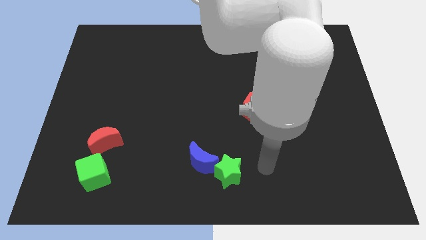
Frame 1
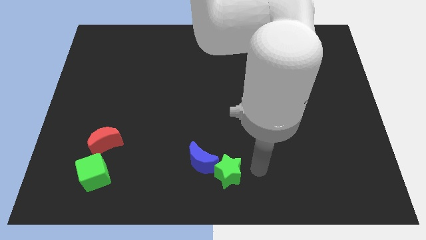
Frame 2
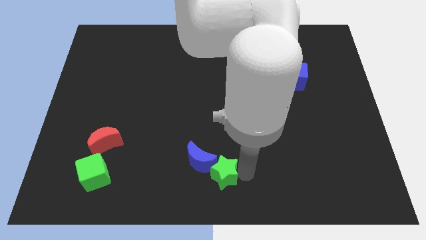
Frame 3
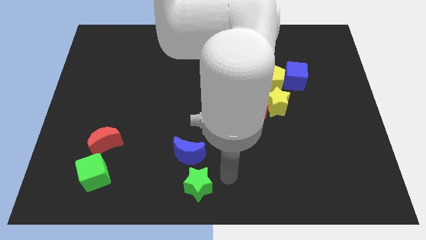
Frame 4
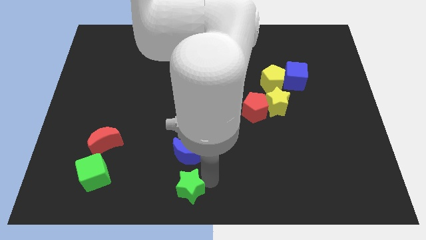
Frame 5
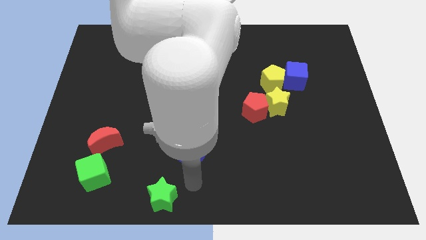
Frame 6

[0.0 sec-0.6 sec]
pull the blue moon apart from the green star

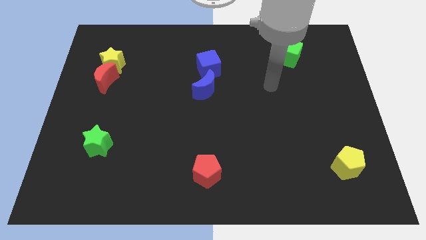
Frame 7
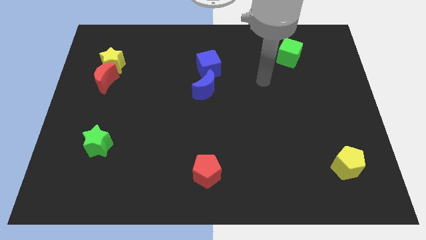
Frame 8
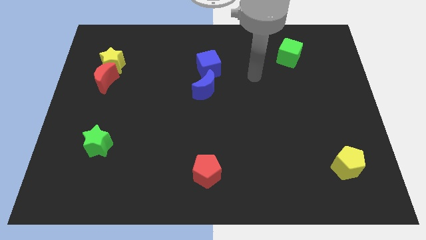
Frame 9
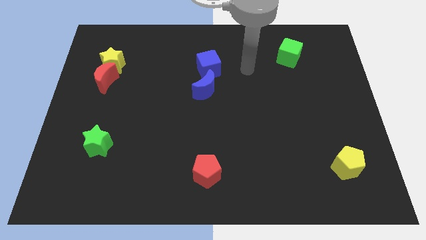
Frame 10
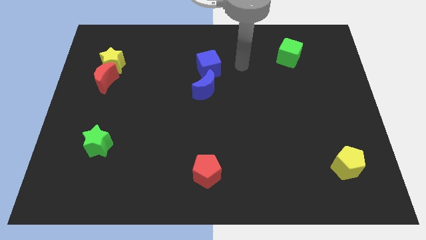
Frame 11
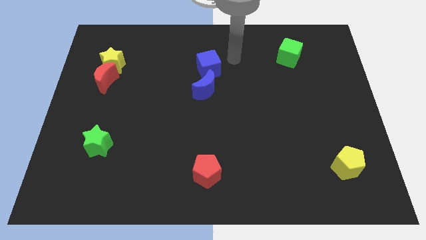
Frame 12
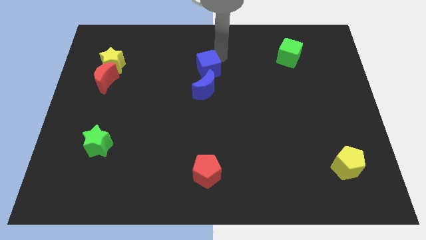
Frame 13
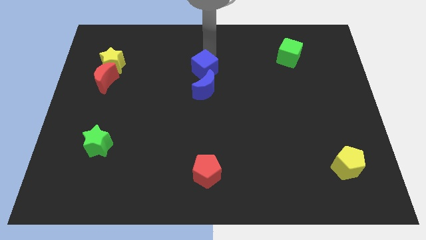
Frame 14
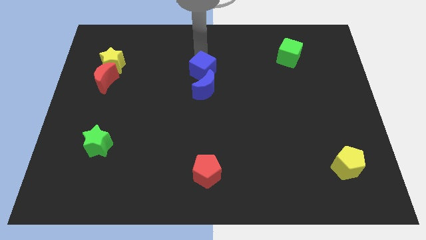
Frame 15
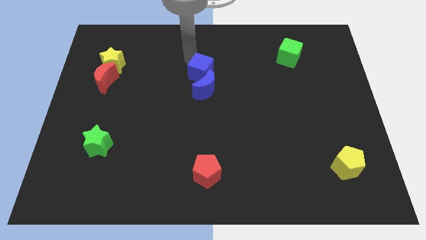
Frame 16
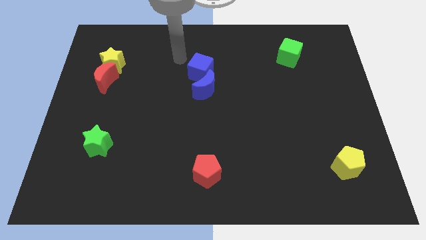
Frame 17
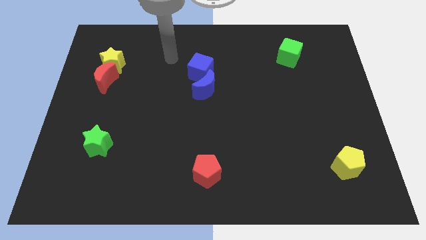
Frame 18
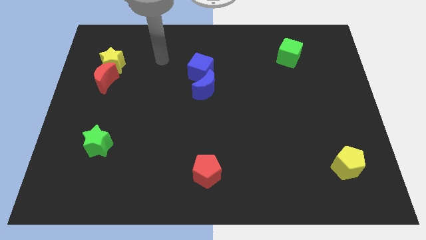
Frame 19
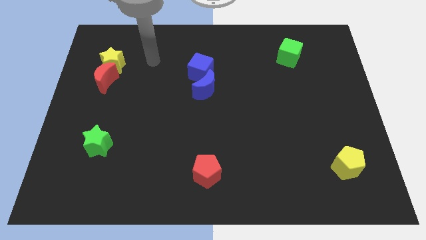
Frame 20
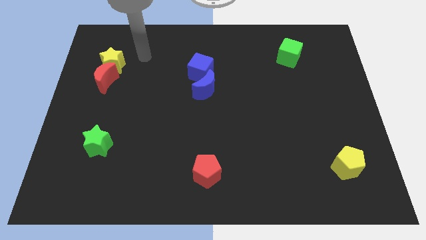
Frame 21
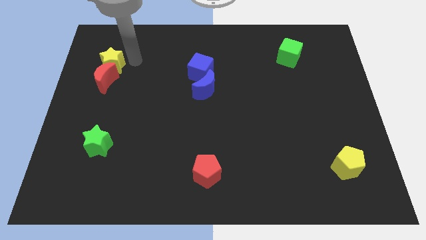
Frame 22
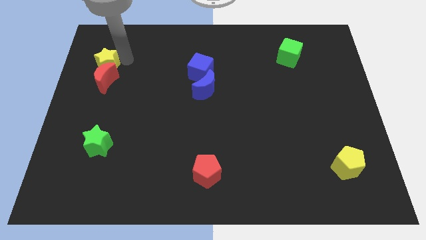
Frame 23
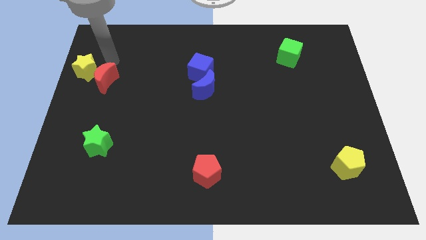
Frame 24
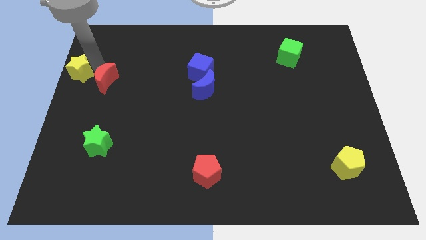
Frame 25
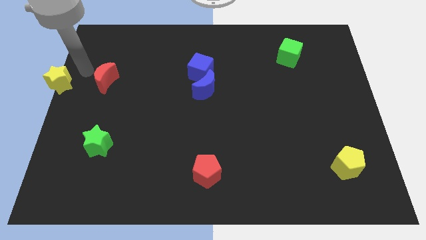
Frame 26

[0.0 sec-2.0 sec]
separate the red moon from the yellow star

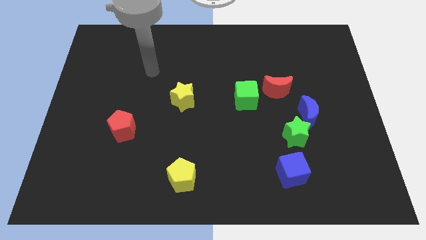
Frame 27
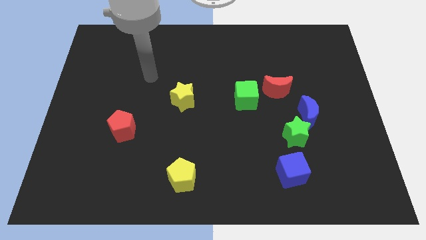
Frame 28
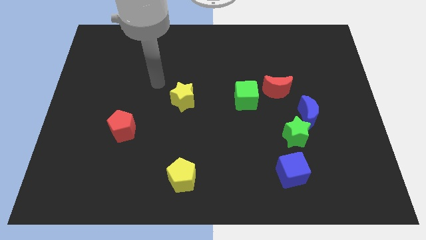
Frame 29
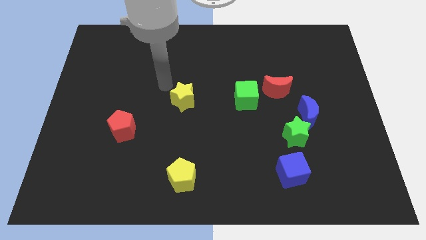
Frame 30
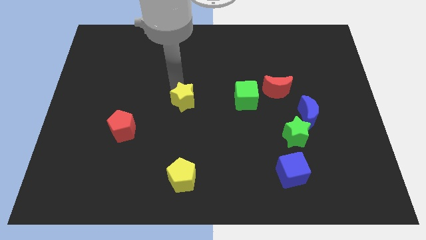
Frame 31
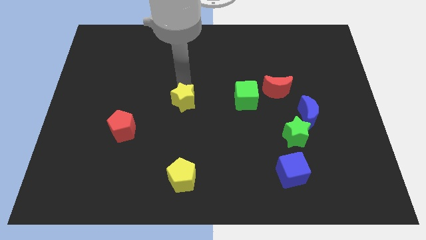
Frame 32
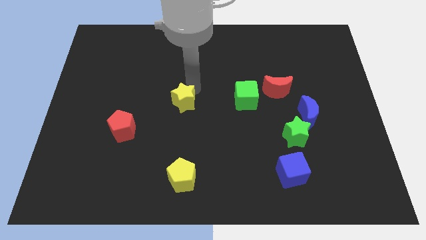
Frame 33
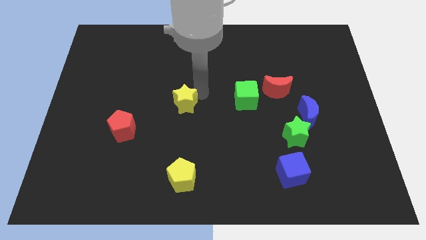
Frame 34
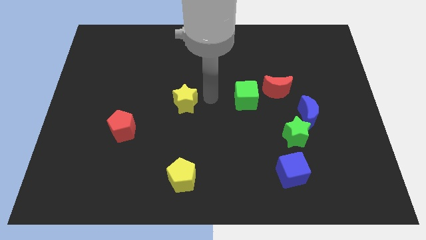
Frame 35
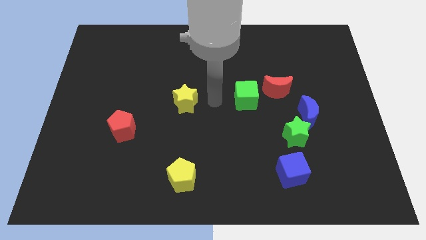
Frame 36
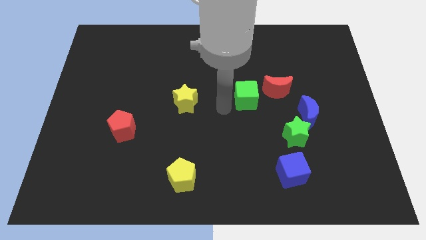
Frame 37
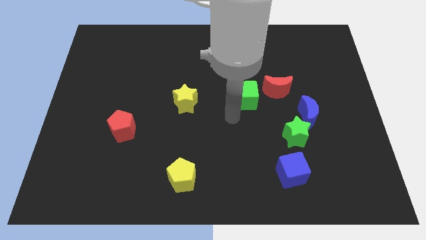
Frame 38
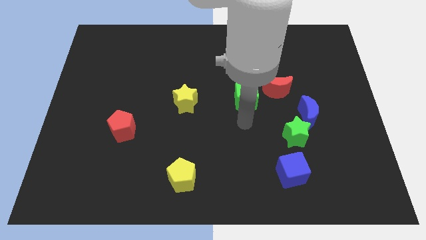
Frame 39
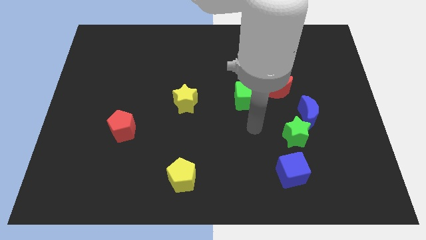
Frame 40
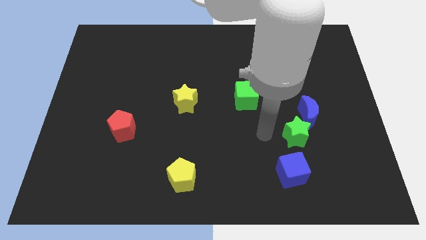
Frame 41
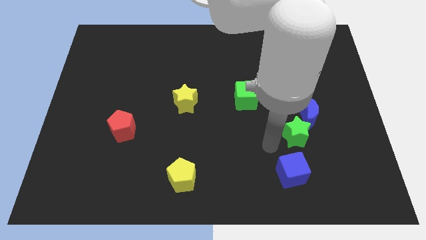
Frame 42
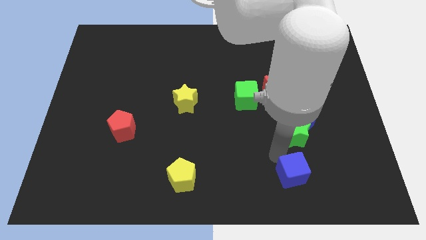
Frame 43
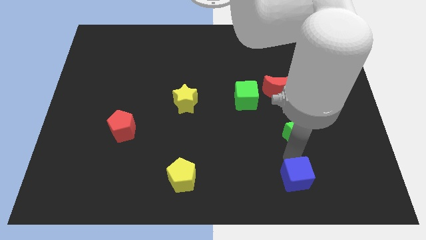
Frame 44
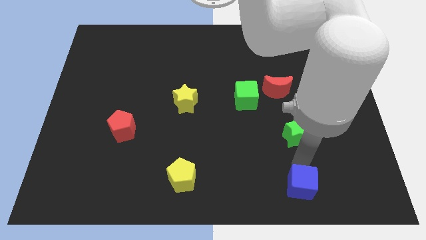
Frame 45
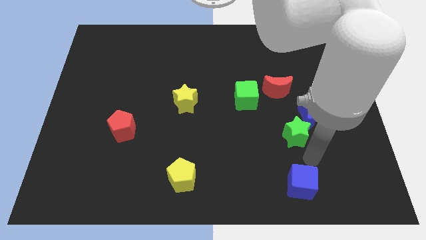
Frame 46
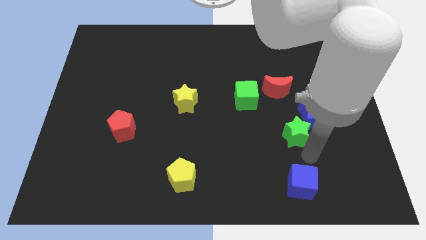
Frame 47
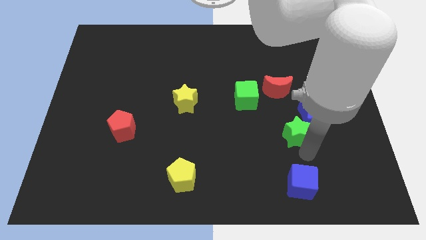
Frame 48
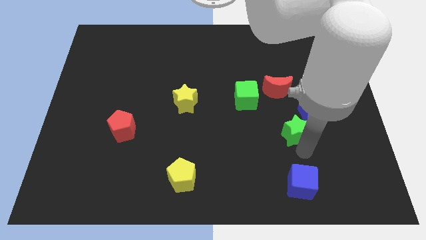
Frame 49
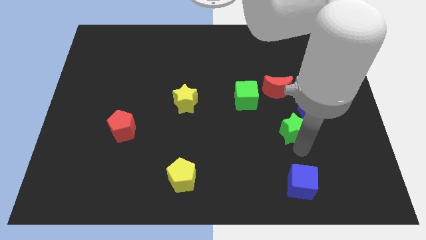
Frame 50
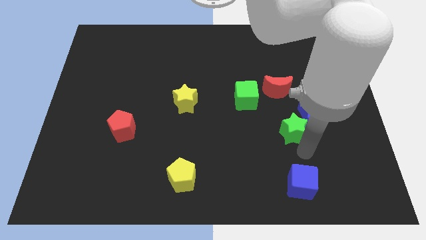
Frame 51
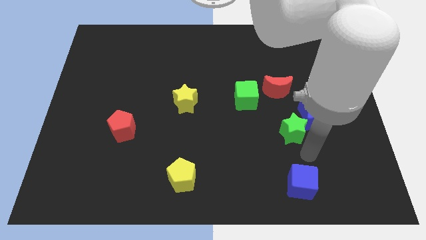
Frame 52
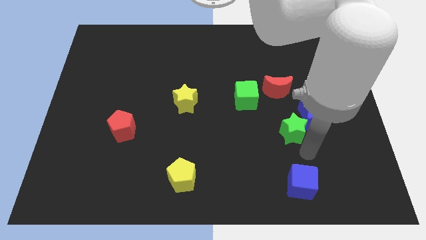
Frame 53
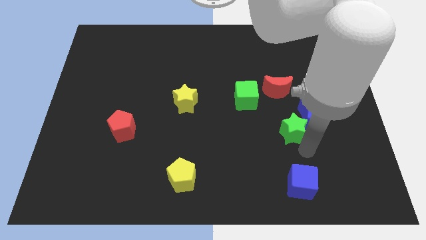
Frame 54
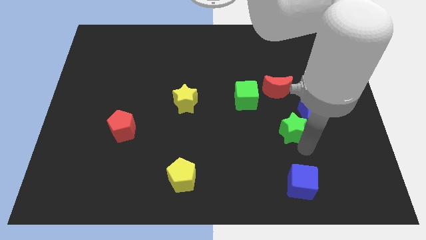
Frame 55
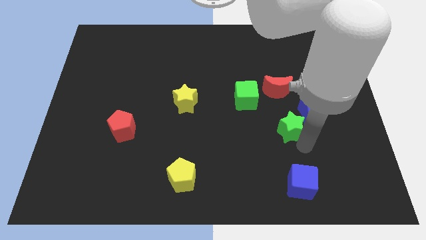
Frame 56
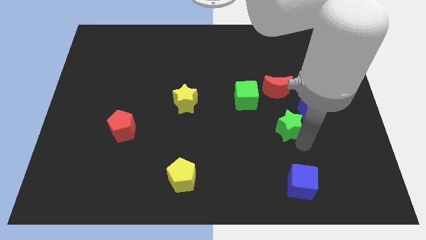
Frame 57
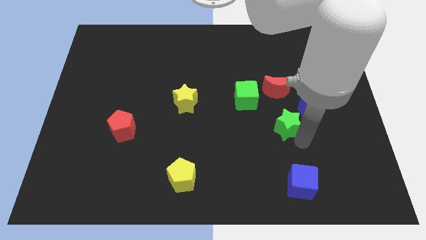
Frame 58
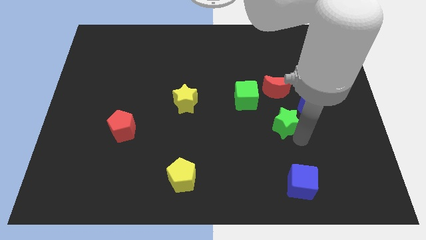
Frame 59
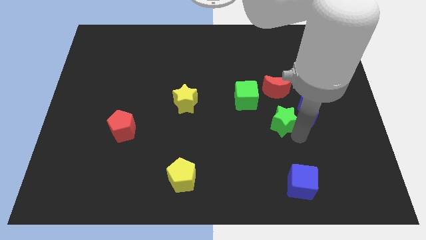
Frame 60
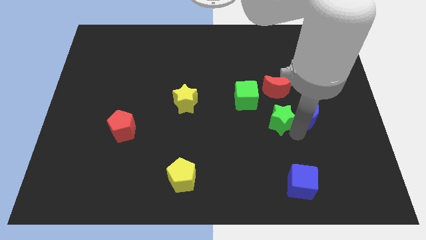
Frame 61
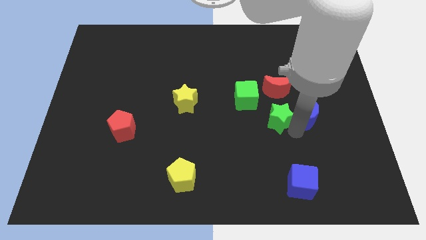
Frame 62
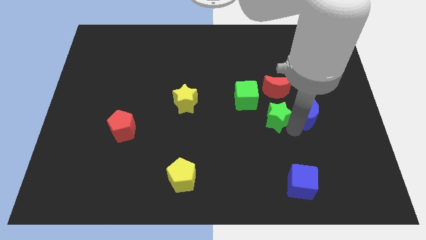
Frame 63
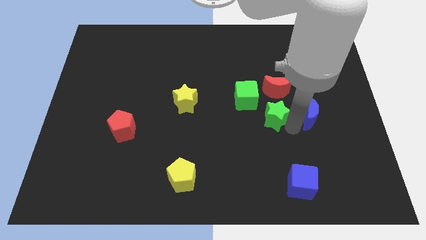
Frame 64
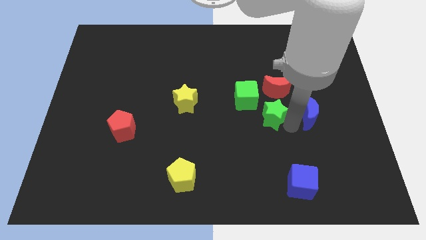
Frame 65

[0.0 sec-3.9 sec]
move the green star away from the blue moon and blue cube

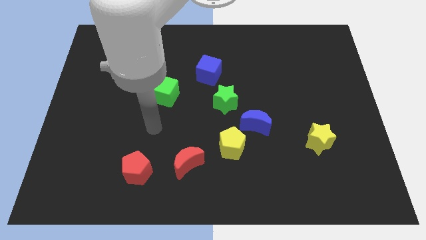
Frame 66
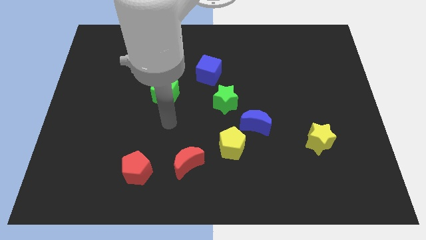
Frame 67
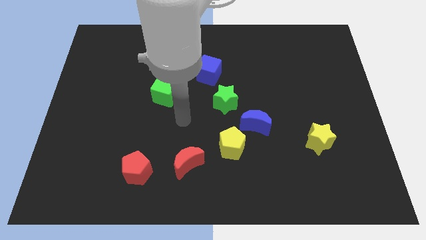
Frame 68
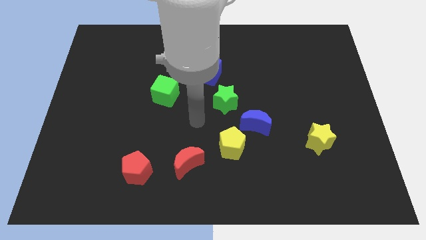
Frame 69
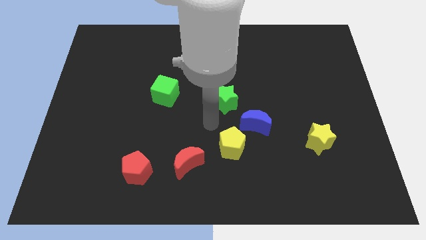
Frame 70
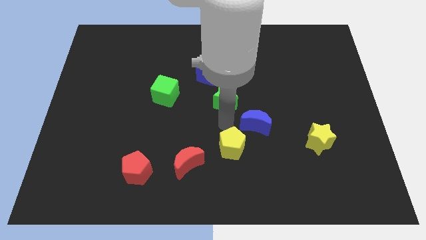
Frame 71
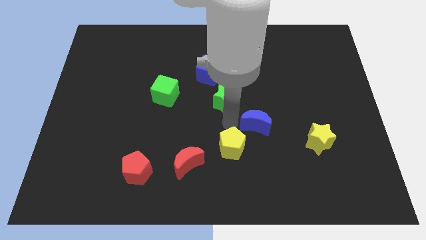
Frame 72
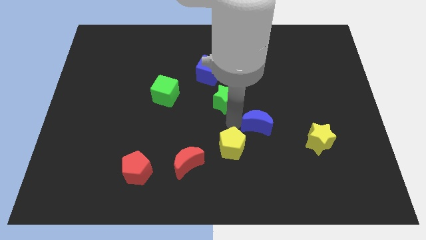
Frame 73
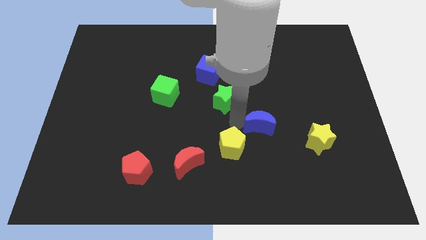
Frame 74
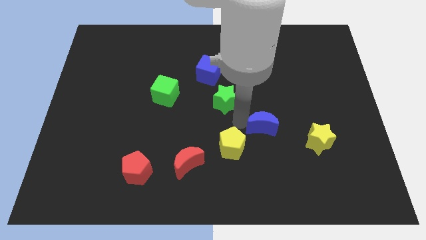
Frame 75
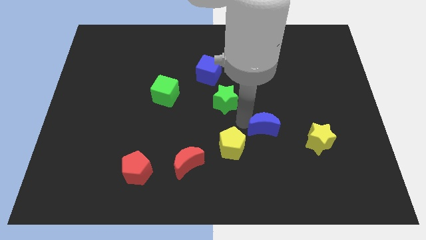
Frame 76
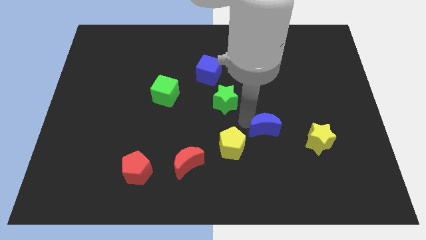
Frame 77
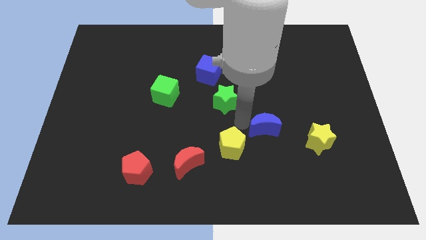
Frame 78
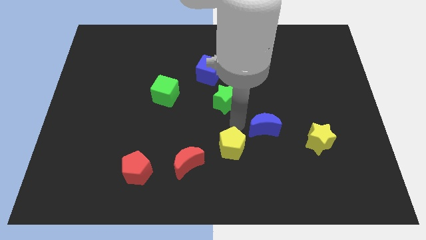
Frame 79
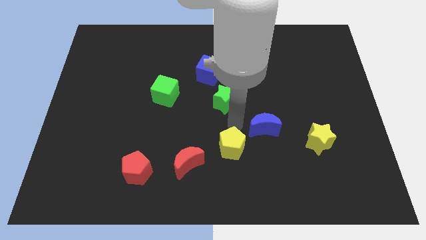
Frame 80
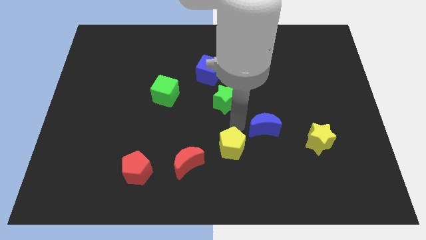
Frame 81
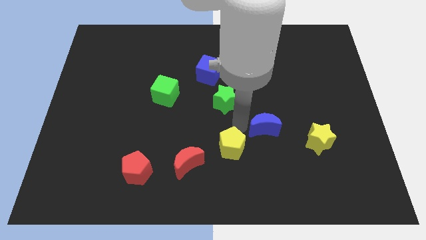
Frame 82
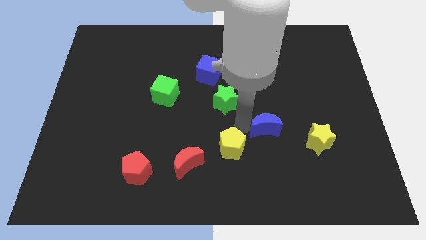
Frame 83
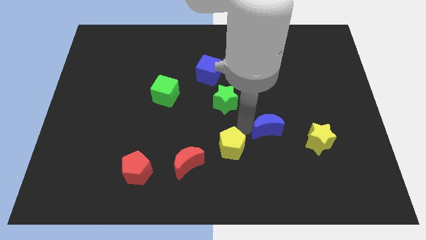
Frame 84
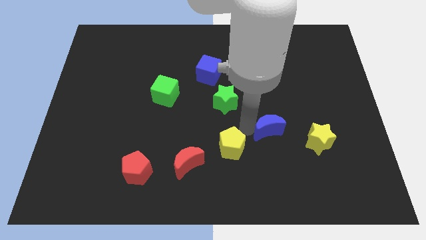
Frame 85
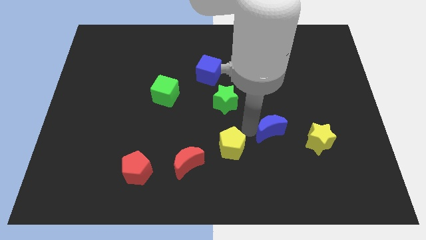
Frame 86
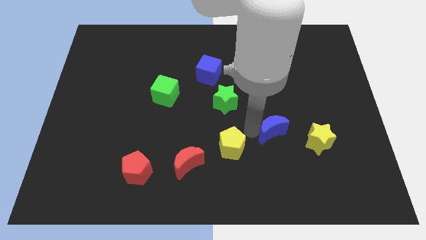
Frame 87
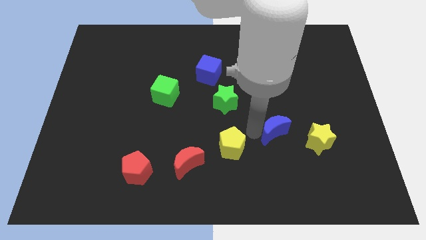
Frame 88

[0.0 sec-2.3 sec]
move the blue moon away from the yellow pentagon and green star

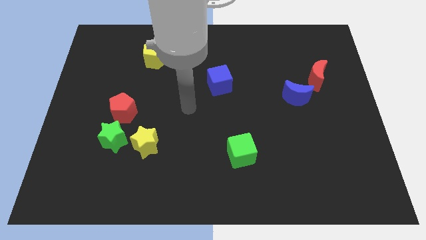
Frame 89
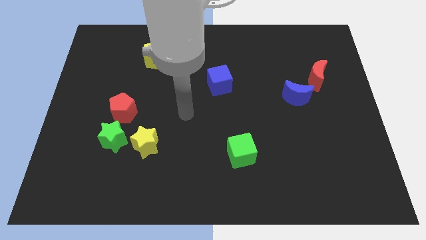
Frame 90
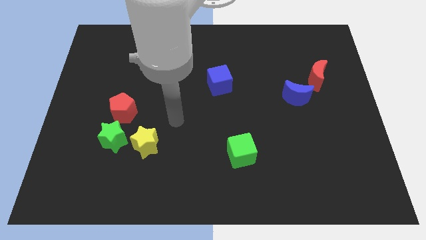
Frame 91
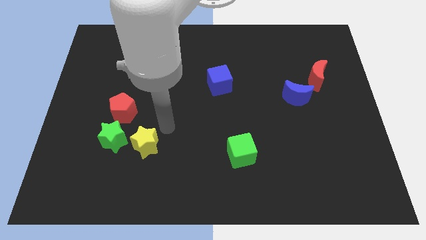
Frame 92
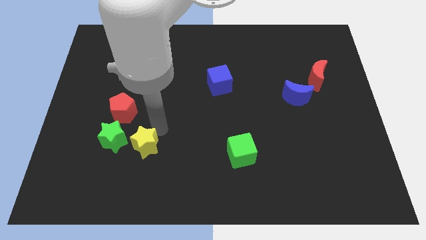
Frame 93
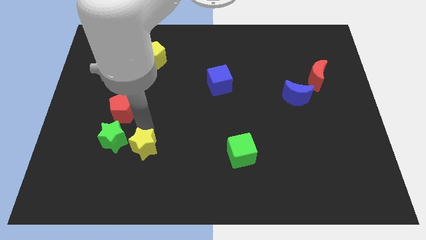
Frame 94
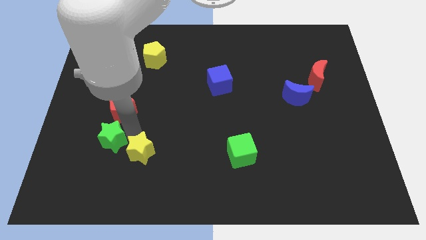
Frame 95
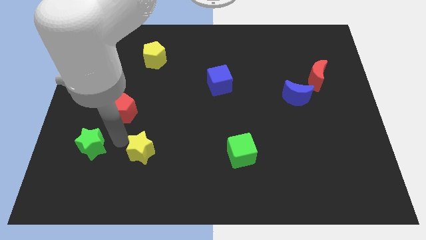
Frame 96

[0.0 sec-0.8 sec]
pull the yellow star apart from the green star
